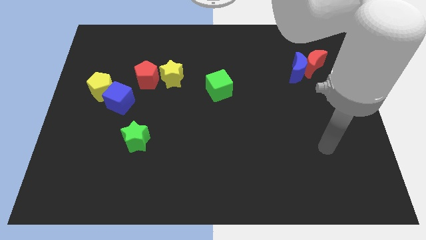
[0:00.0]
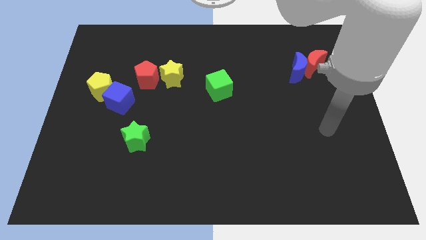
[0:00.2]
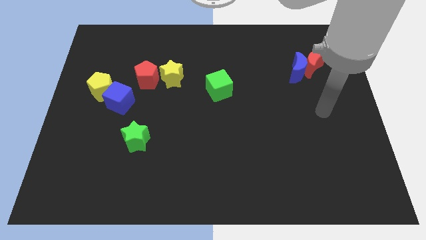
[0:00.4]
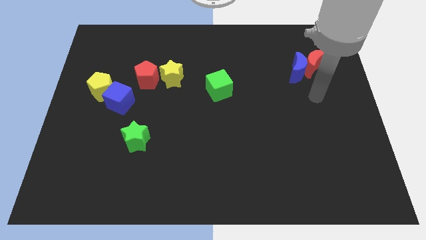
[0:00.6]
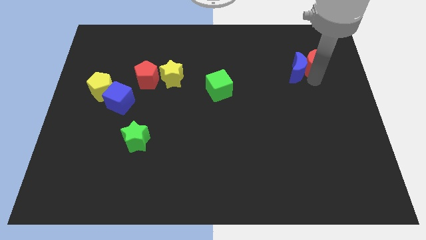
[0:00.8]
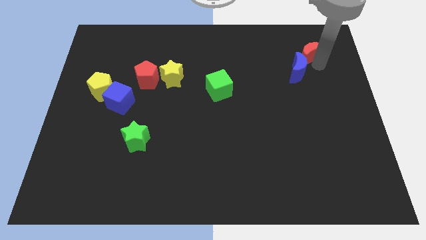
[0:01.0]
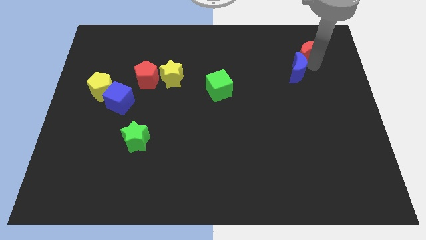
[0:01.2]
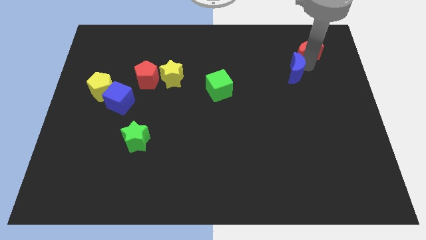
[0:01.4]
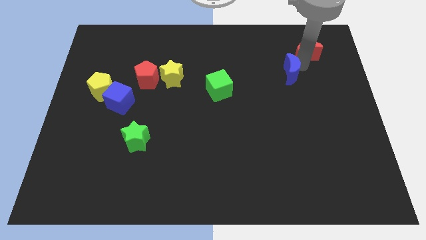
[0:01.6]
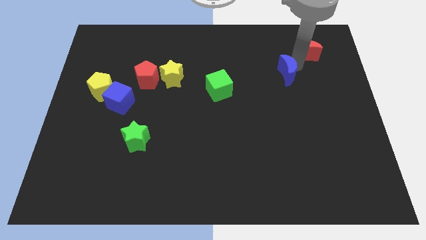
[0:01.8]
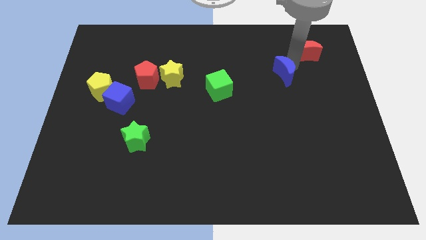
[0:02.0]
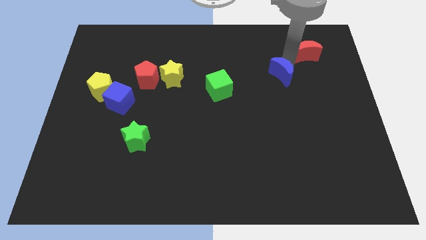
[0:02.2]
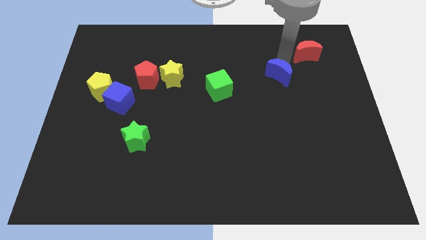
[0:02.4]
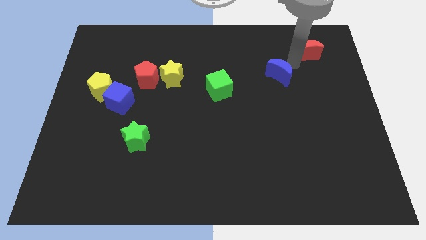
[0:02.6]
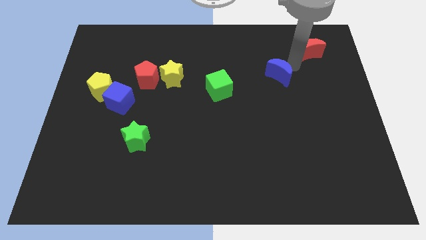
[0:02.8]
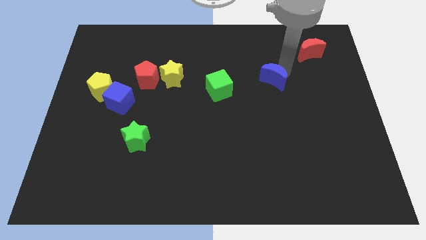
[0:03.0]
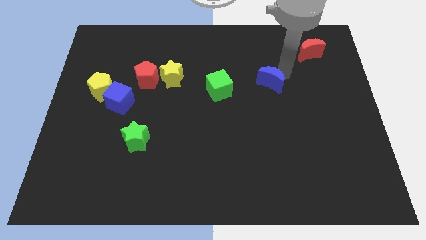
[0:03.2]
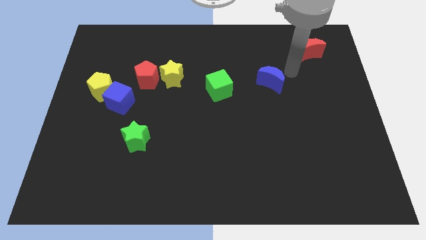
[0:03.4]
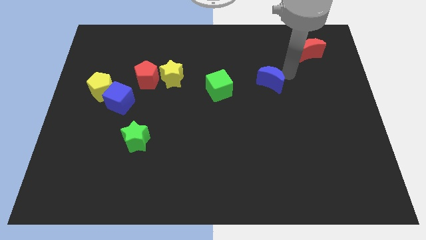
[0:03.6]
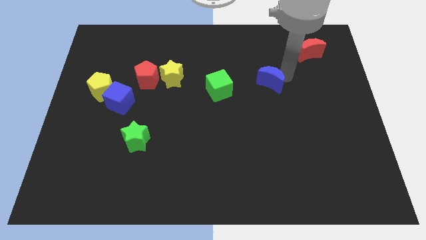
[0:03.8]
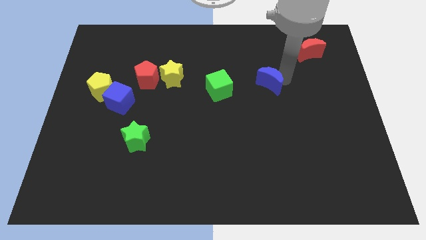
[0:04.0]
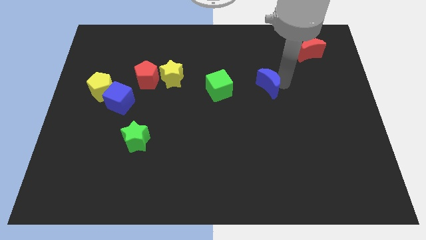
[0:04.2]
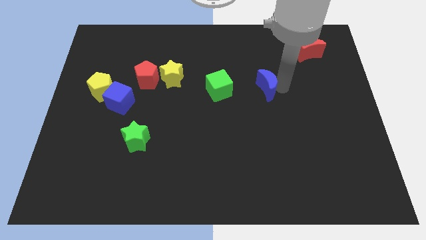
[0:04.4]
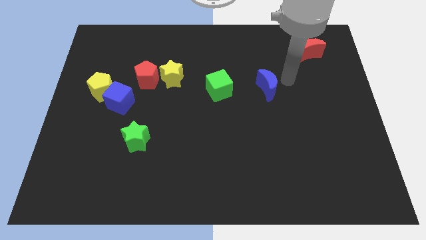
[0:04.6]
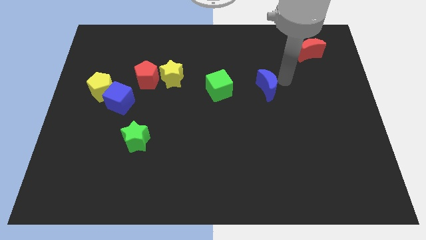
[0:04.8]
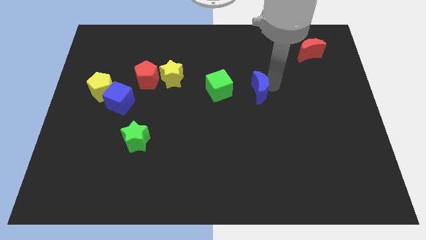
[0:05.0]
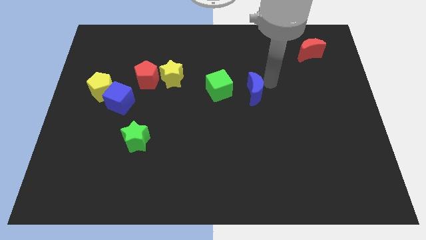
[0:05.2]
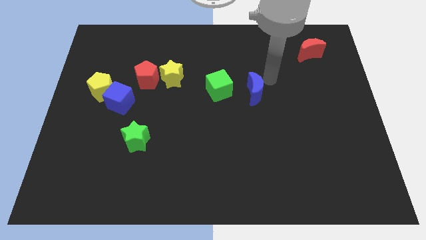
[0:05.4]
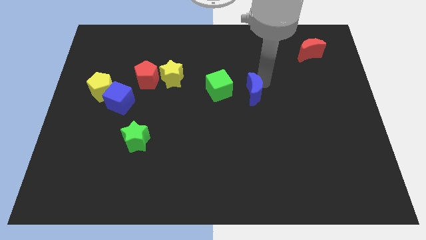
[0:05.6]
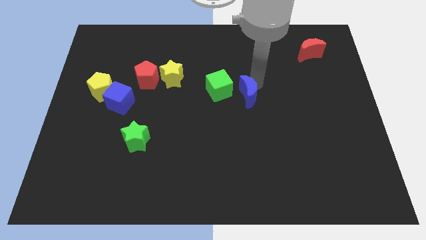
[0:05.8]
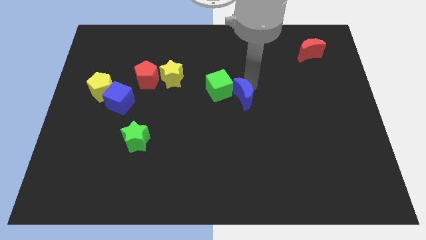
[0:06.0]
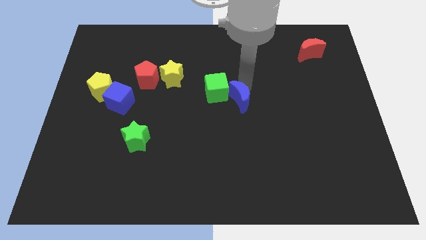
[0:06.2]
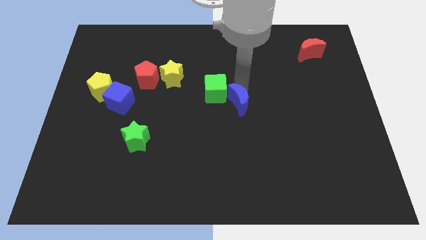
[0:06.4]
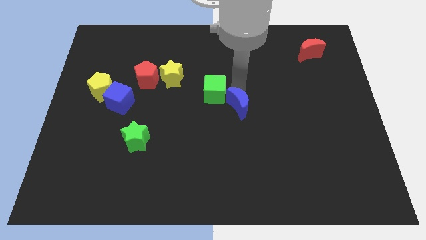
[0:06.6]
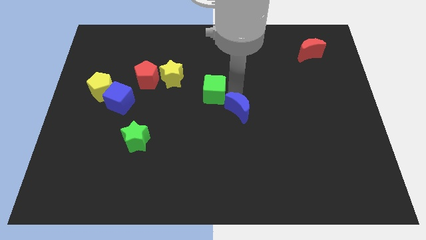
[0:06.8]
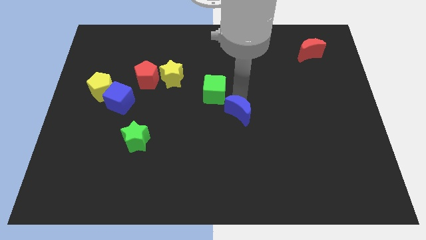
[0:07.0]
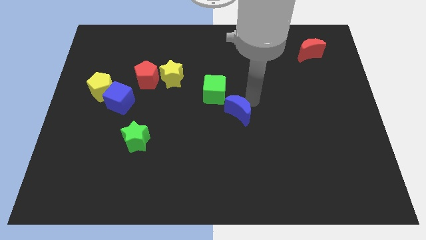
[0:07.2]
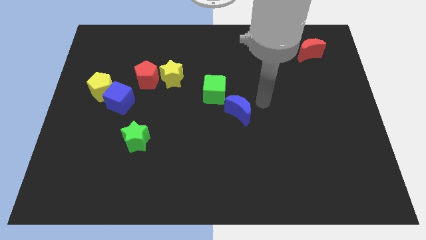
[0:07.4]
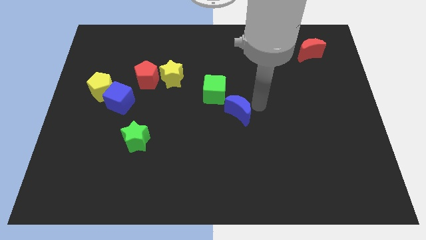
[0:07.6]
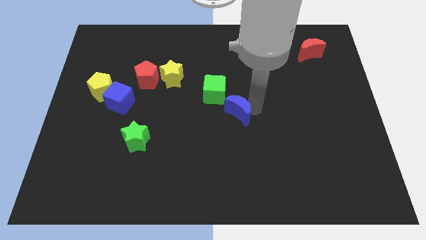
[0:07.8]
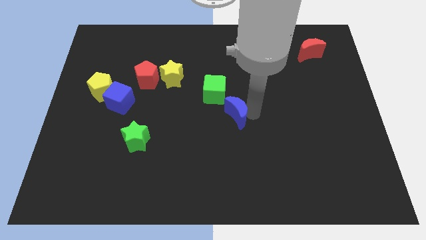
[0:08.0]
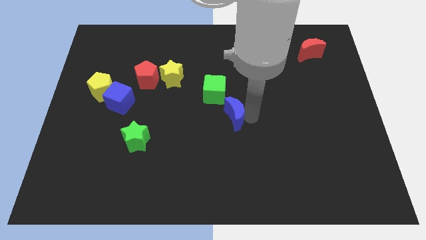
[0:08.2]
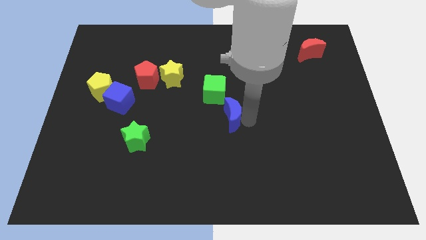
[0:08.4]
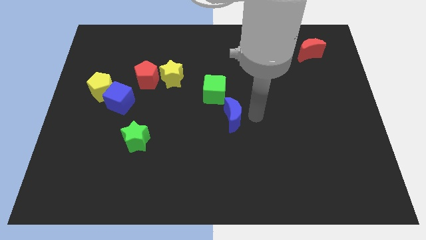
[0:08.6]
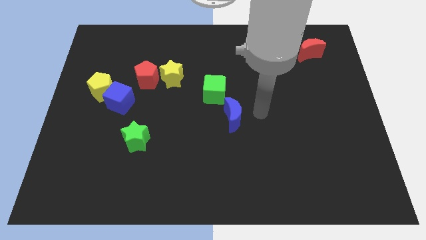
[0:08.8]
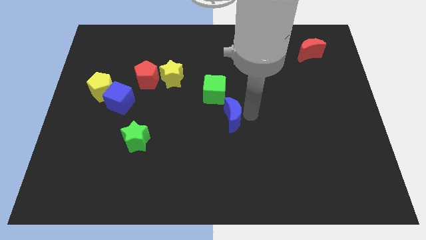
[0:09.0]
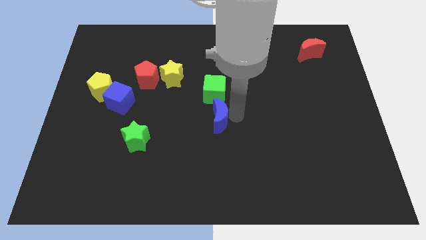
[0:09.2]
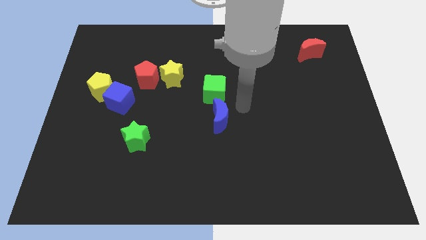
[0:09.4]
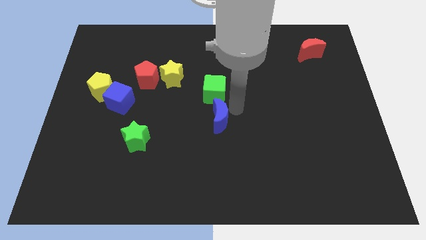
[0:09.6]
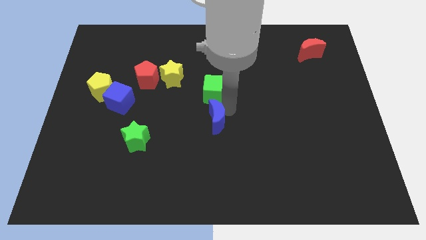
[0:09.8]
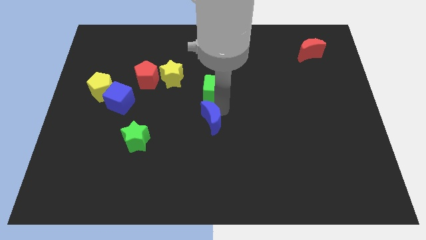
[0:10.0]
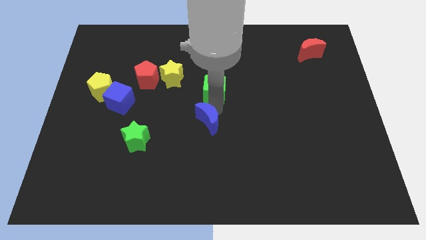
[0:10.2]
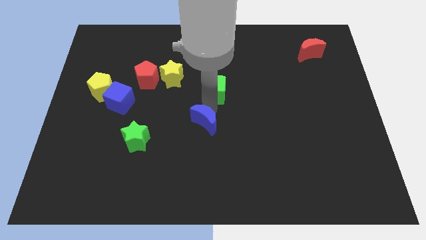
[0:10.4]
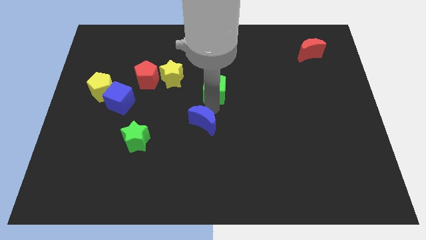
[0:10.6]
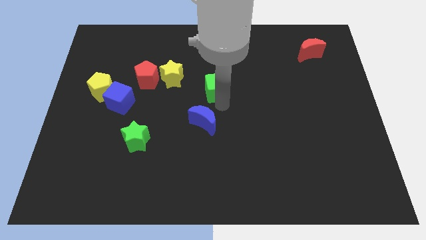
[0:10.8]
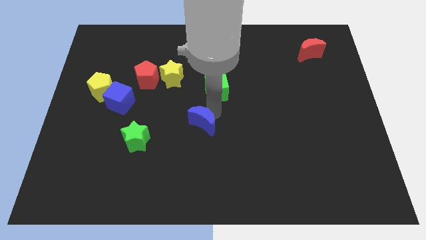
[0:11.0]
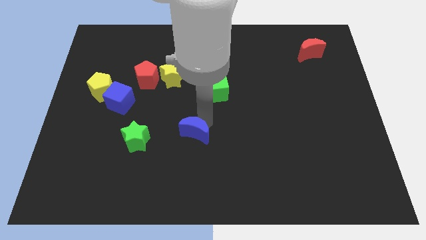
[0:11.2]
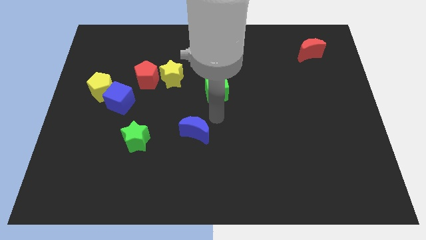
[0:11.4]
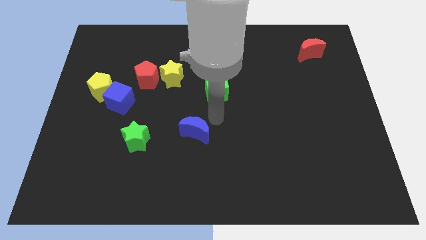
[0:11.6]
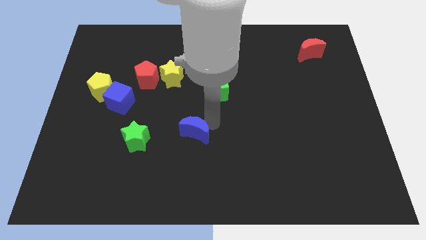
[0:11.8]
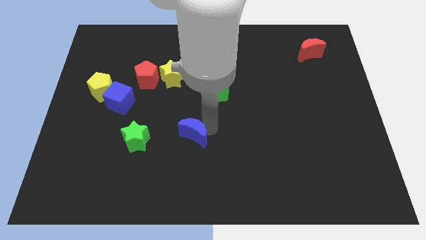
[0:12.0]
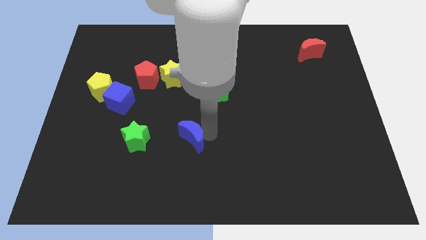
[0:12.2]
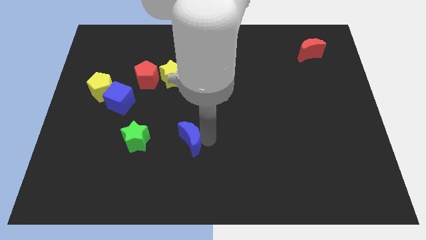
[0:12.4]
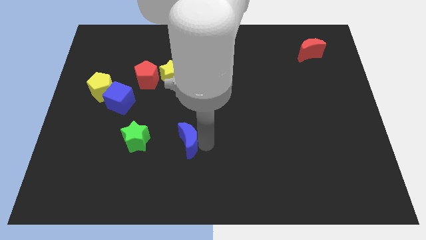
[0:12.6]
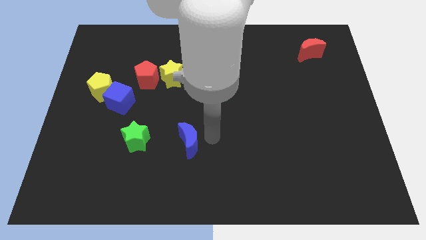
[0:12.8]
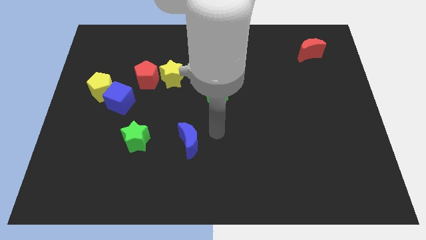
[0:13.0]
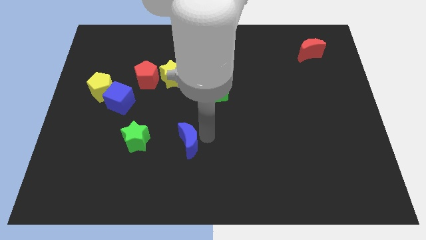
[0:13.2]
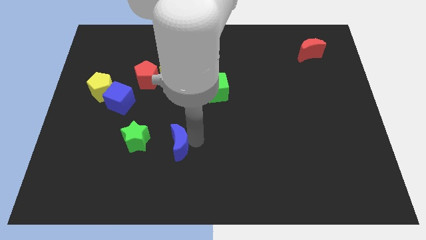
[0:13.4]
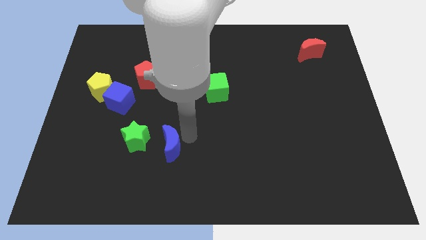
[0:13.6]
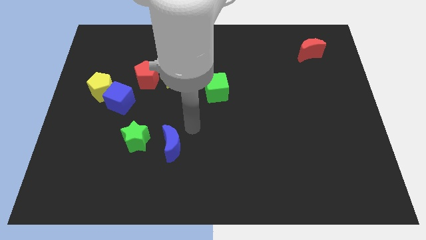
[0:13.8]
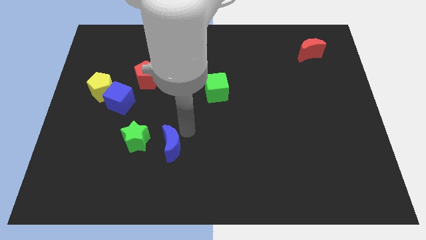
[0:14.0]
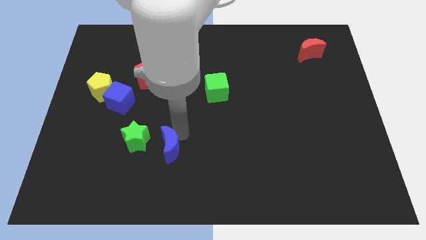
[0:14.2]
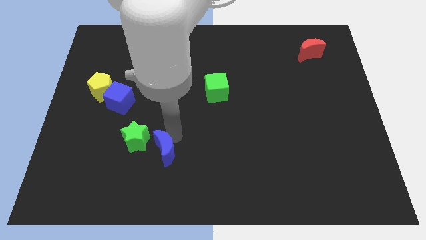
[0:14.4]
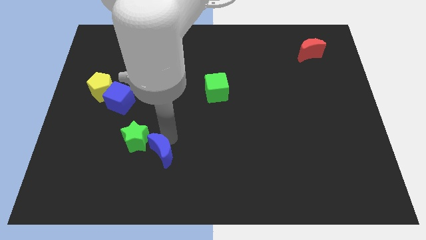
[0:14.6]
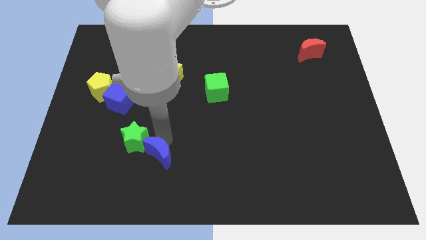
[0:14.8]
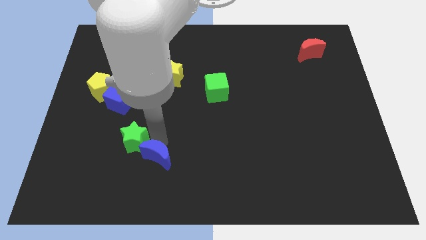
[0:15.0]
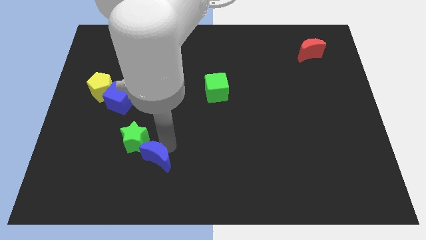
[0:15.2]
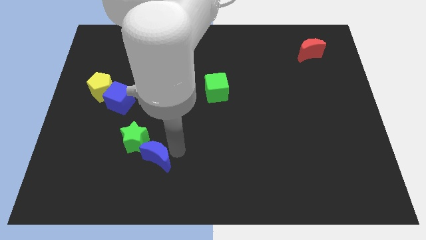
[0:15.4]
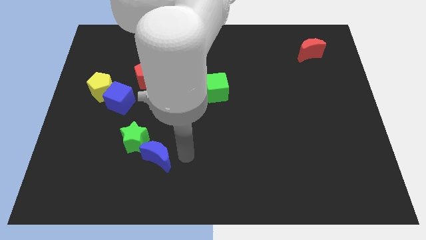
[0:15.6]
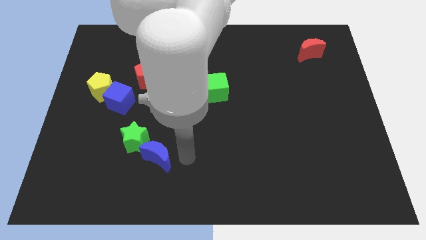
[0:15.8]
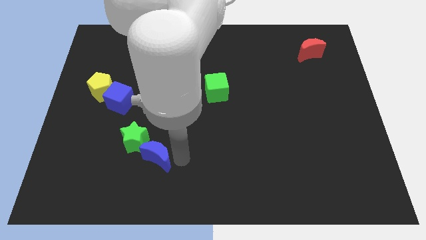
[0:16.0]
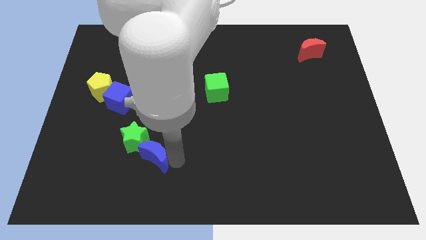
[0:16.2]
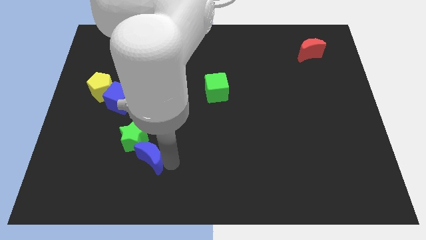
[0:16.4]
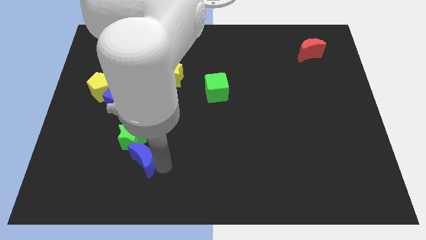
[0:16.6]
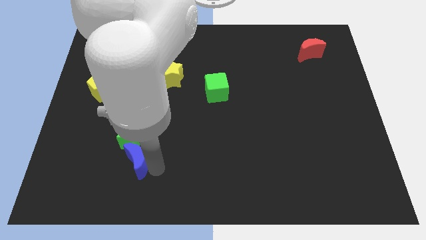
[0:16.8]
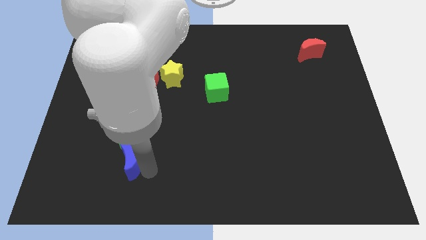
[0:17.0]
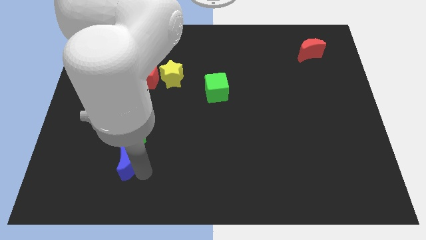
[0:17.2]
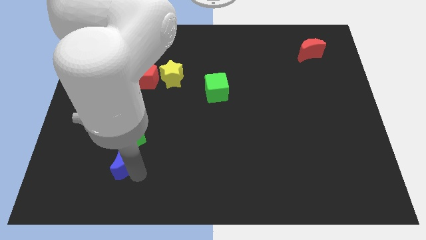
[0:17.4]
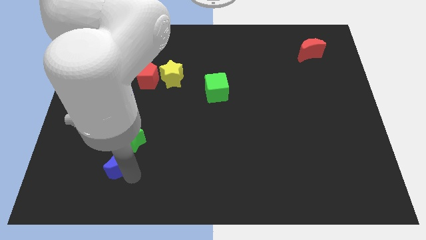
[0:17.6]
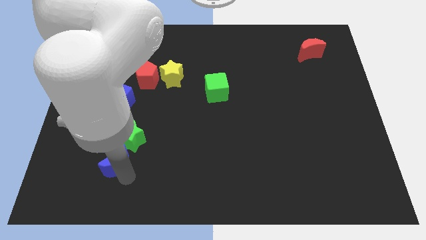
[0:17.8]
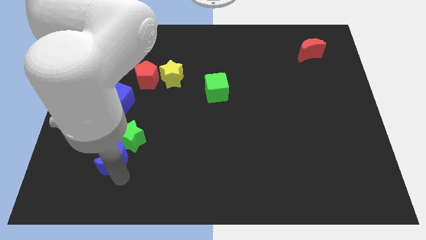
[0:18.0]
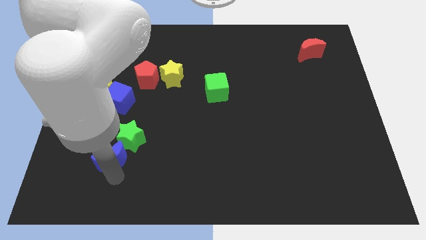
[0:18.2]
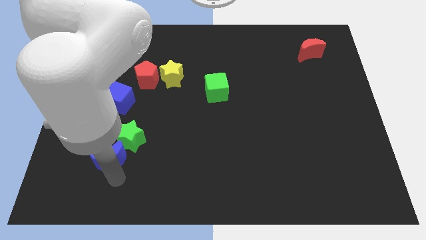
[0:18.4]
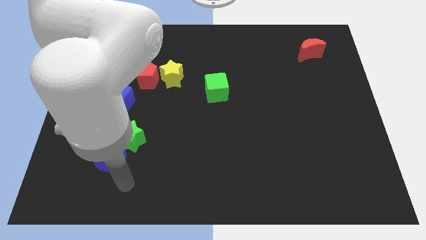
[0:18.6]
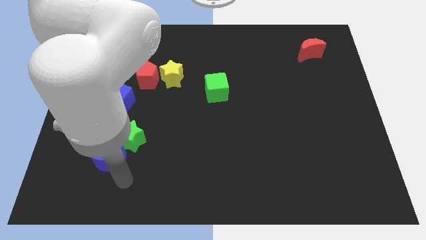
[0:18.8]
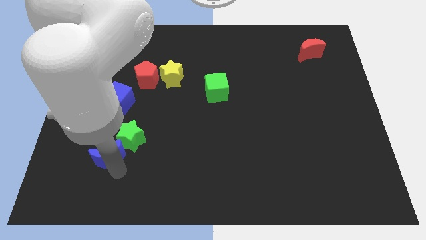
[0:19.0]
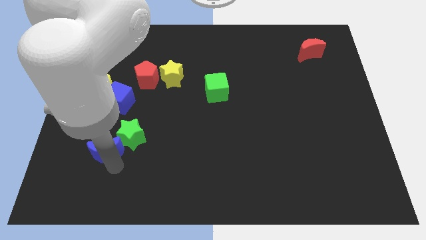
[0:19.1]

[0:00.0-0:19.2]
slide the blue moon left of the green star
